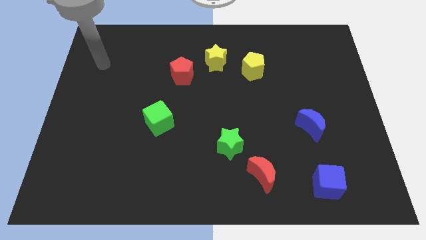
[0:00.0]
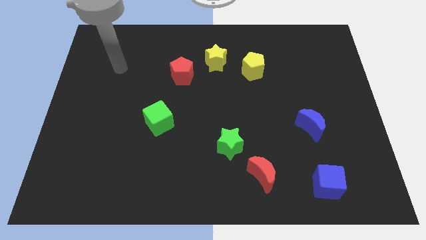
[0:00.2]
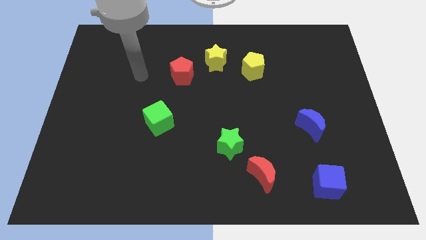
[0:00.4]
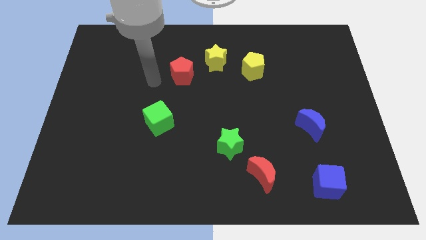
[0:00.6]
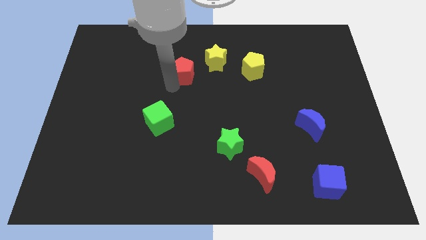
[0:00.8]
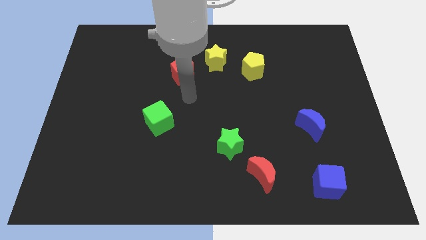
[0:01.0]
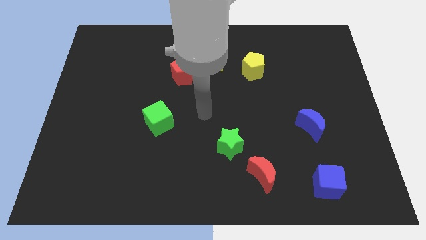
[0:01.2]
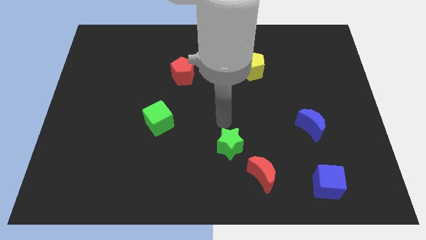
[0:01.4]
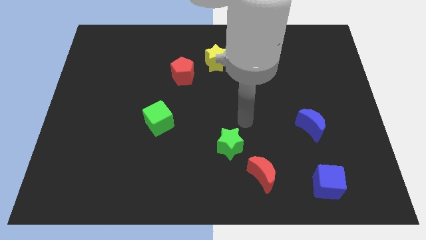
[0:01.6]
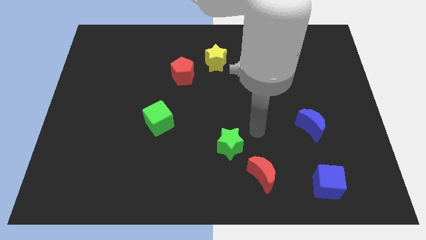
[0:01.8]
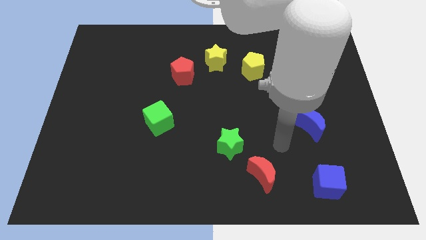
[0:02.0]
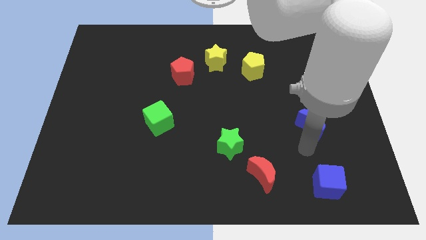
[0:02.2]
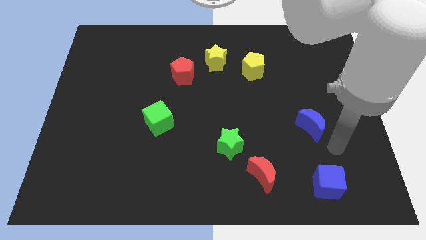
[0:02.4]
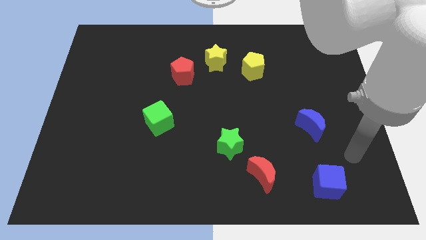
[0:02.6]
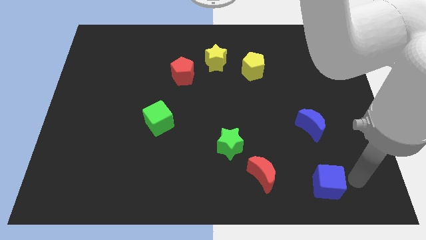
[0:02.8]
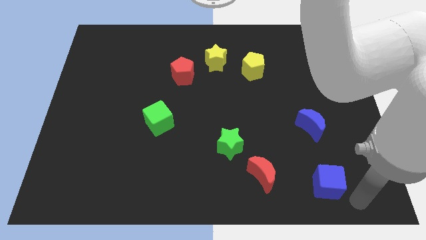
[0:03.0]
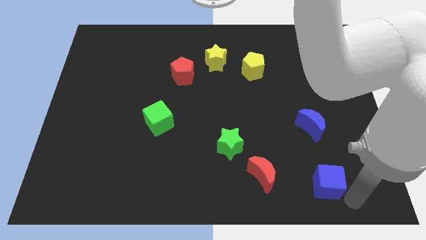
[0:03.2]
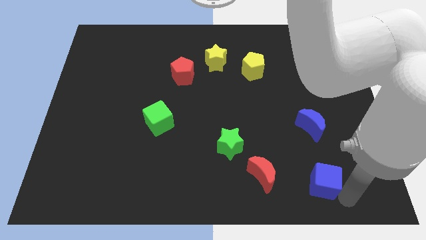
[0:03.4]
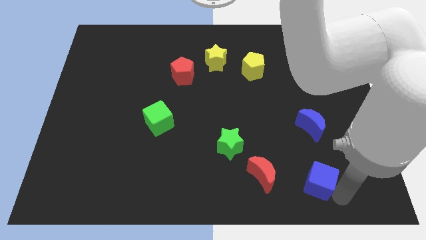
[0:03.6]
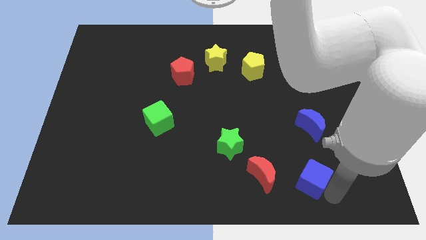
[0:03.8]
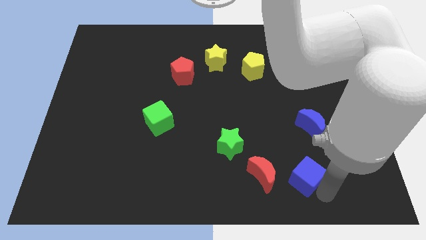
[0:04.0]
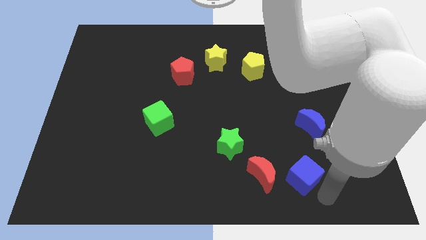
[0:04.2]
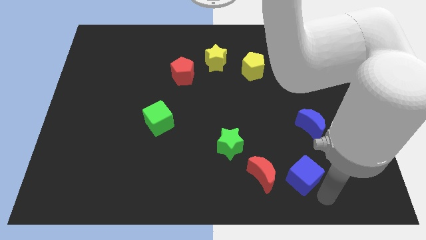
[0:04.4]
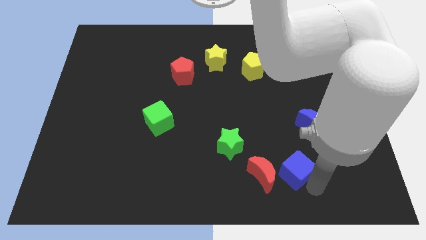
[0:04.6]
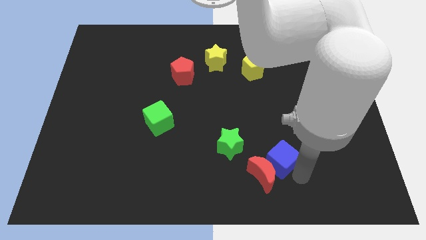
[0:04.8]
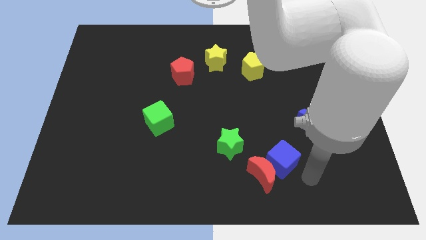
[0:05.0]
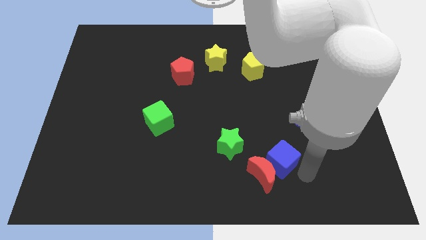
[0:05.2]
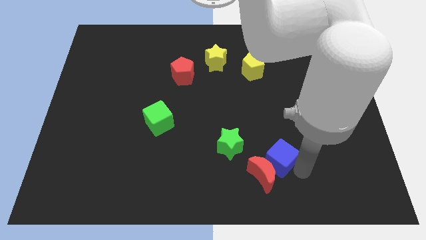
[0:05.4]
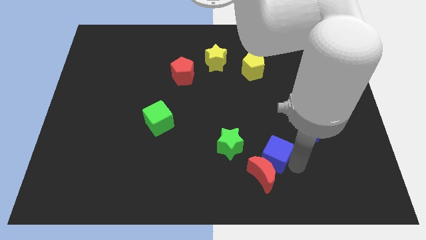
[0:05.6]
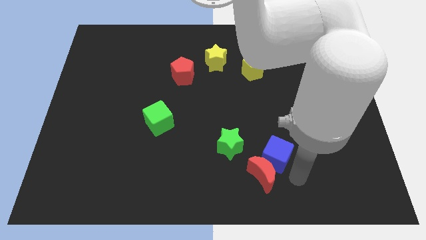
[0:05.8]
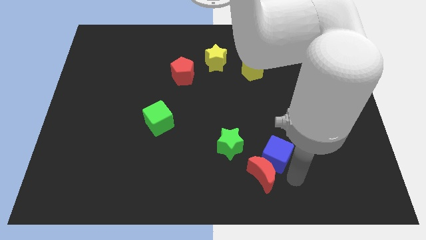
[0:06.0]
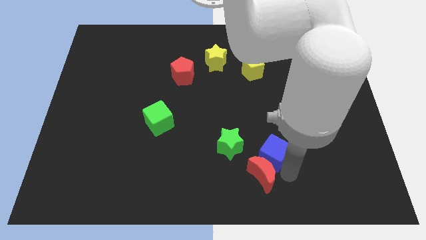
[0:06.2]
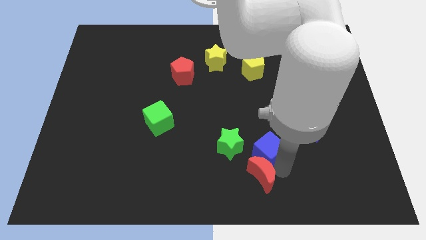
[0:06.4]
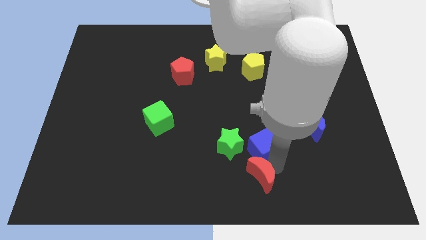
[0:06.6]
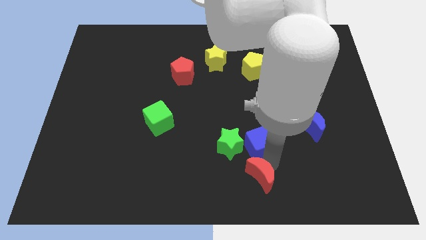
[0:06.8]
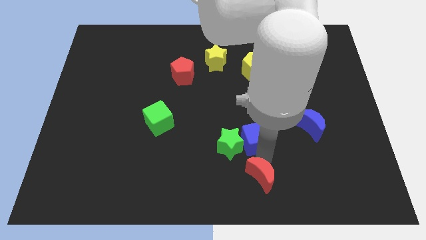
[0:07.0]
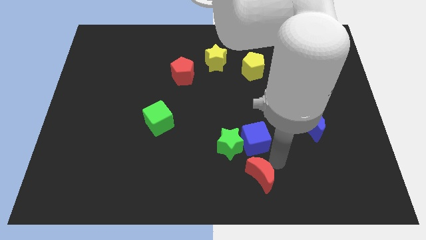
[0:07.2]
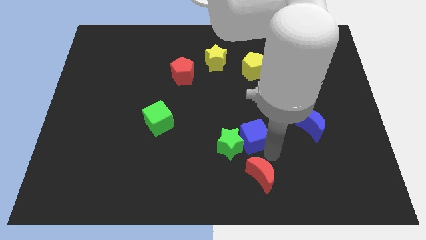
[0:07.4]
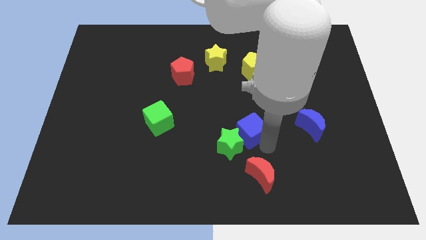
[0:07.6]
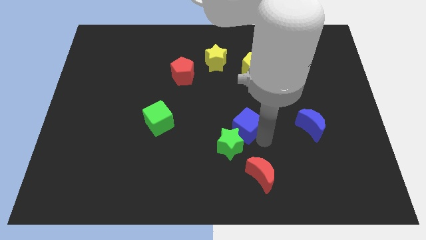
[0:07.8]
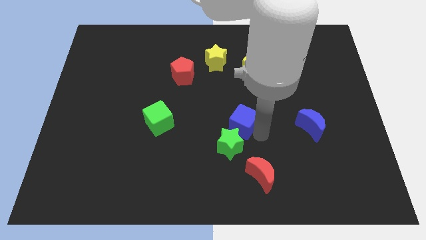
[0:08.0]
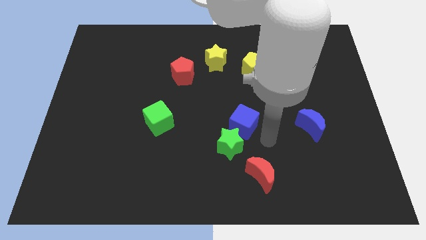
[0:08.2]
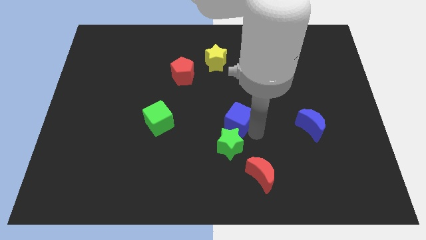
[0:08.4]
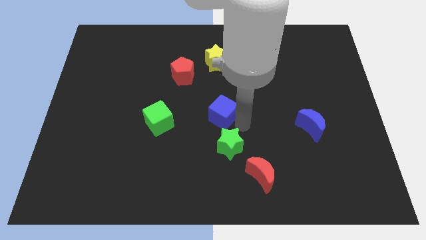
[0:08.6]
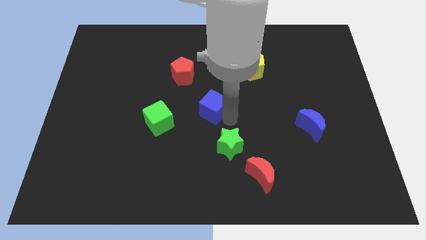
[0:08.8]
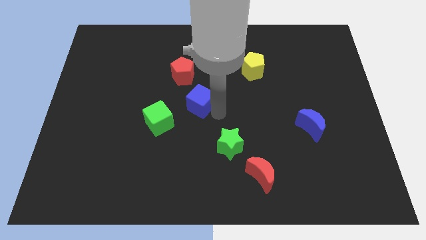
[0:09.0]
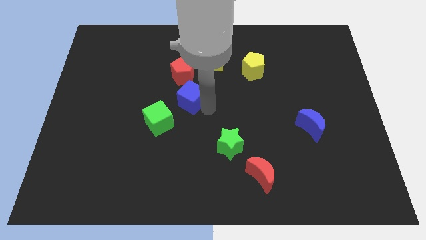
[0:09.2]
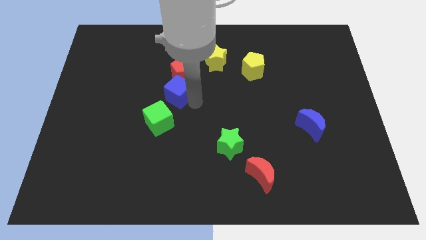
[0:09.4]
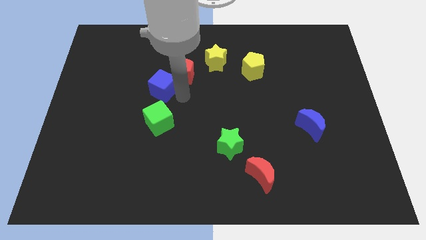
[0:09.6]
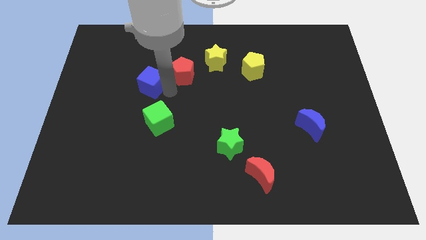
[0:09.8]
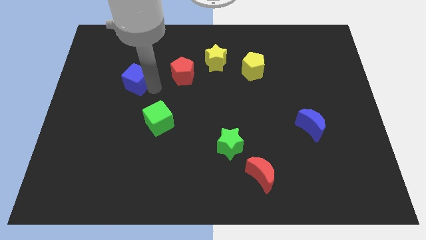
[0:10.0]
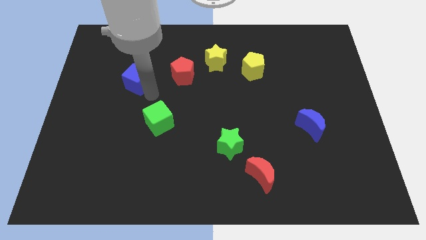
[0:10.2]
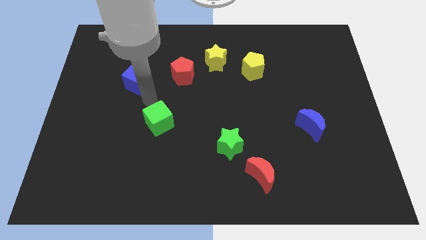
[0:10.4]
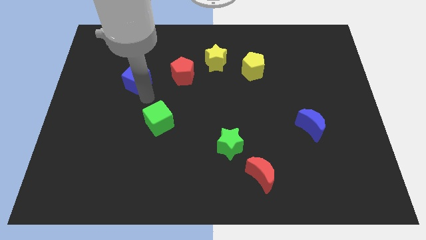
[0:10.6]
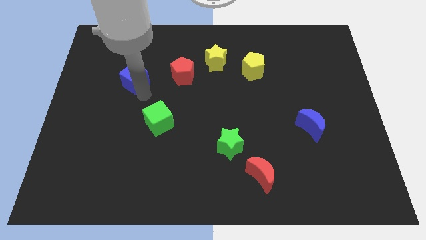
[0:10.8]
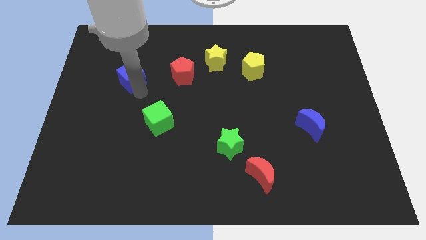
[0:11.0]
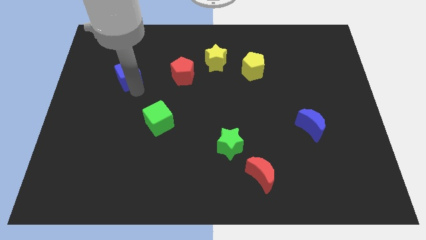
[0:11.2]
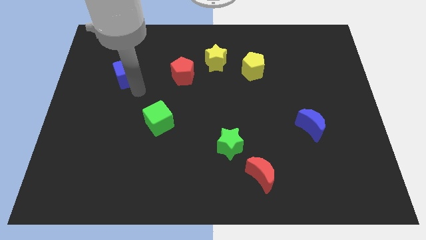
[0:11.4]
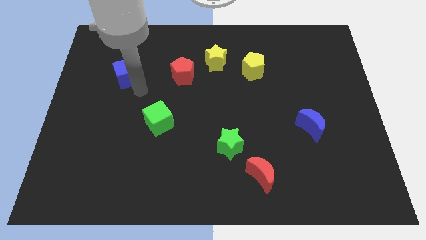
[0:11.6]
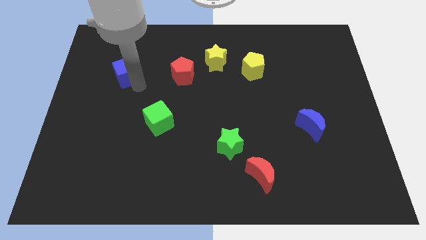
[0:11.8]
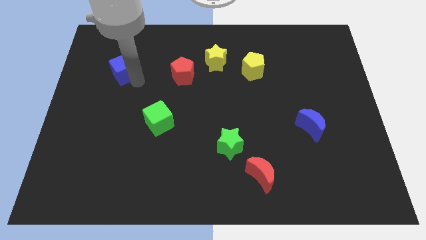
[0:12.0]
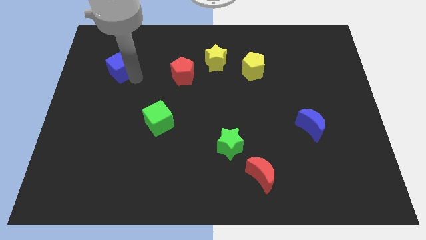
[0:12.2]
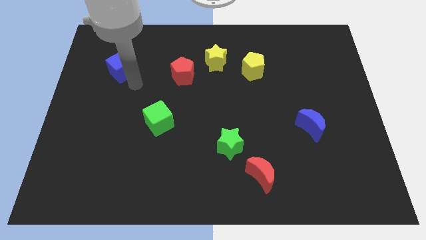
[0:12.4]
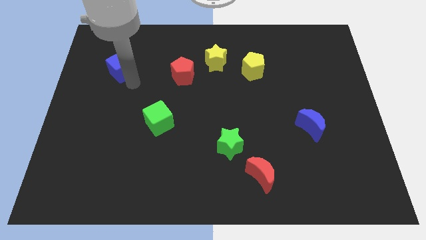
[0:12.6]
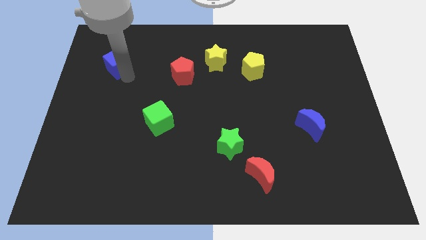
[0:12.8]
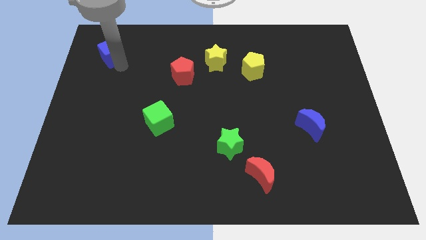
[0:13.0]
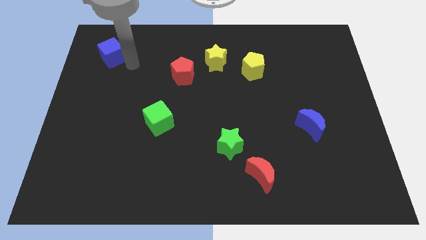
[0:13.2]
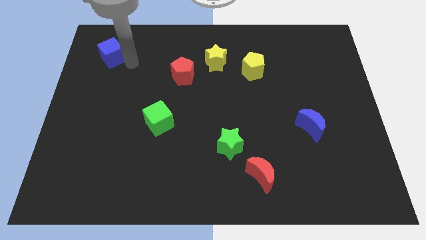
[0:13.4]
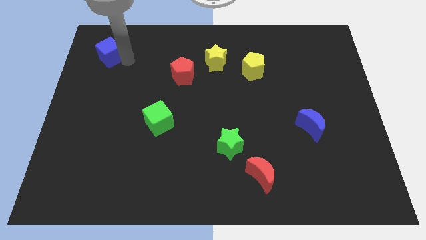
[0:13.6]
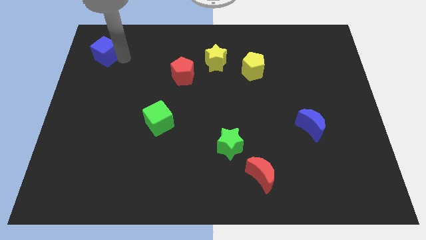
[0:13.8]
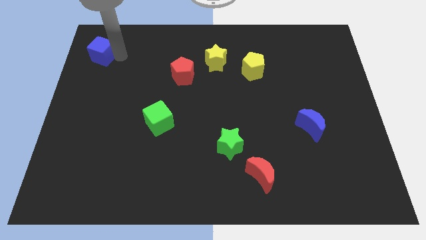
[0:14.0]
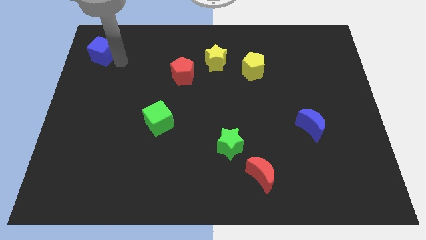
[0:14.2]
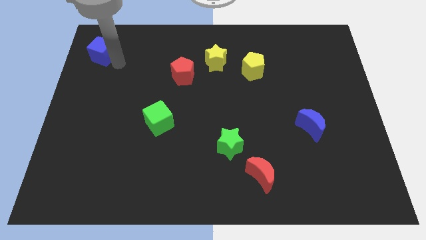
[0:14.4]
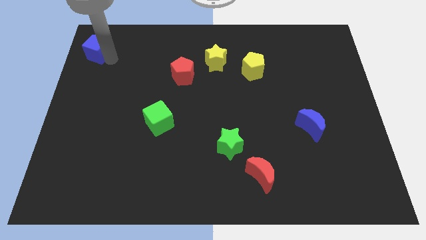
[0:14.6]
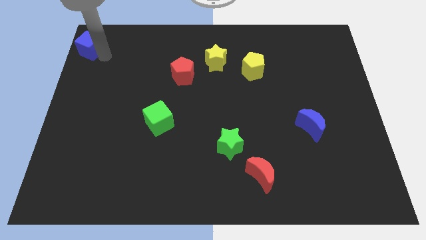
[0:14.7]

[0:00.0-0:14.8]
move the blue cube to the top left corner
